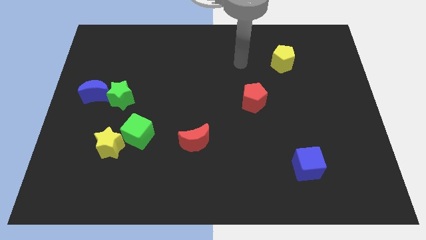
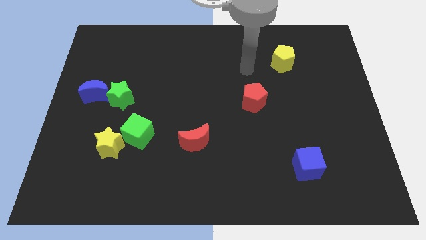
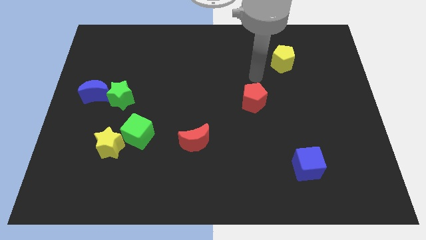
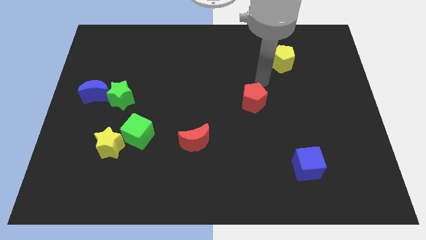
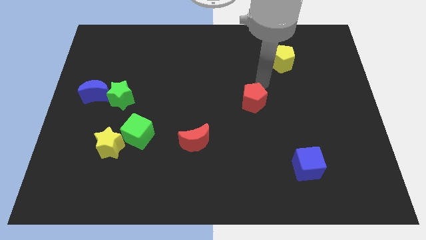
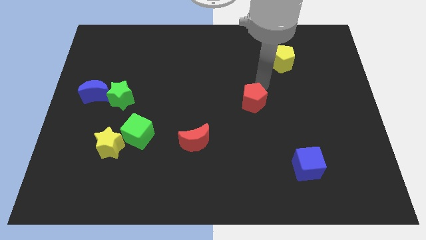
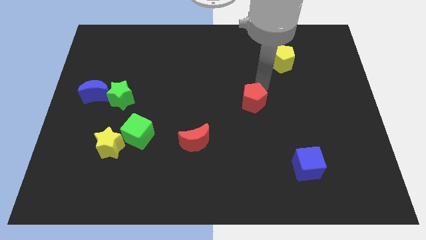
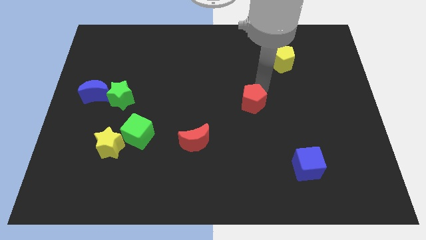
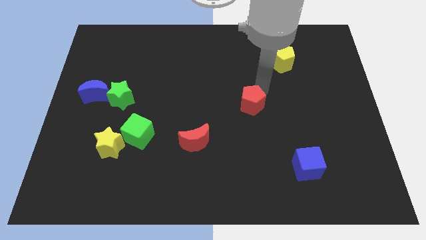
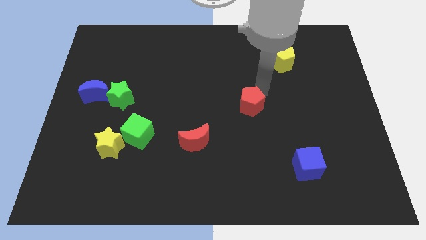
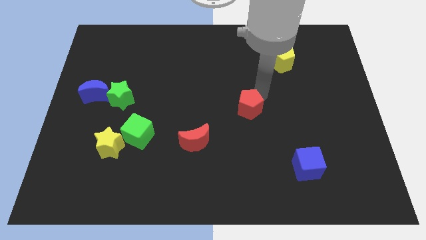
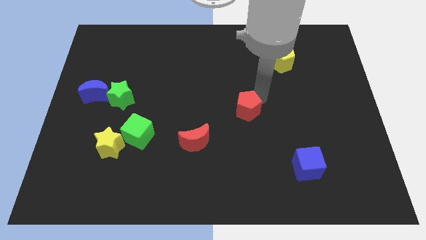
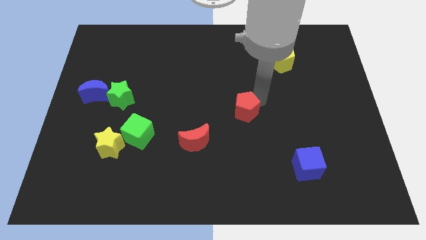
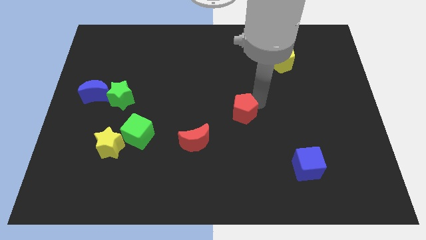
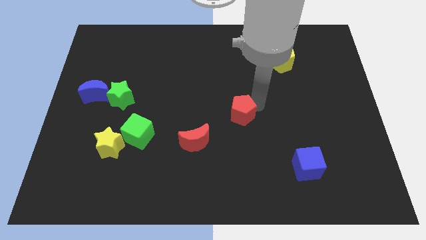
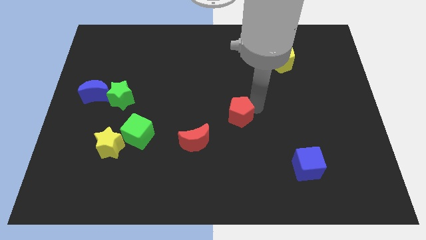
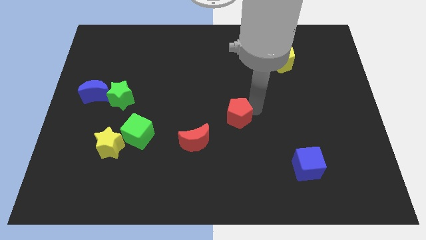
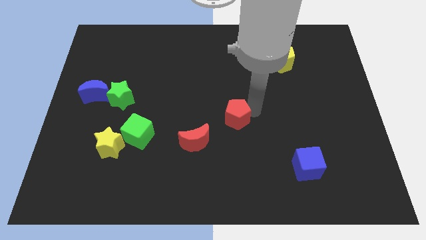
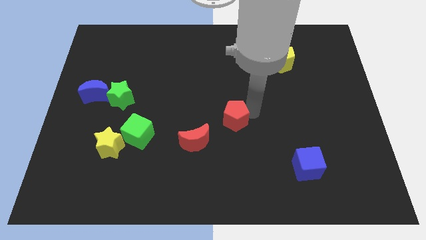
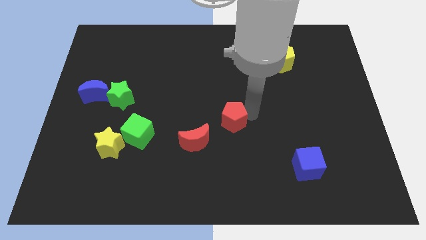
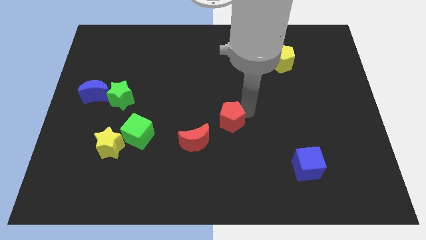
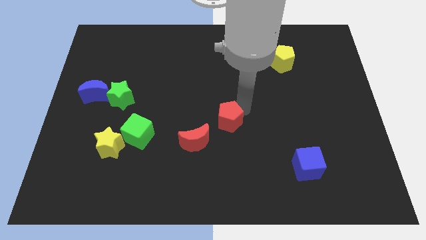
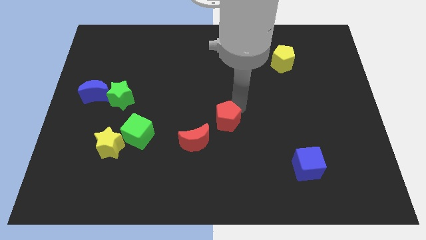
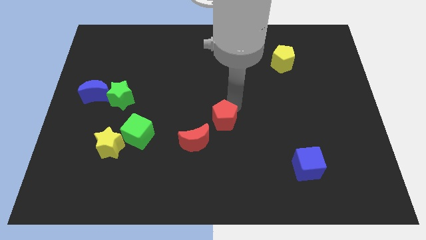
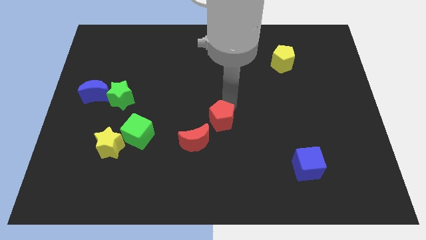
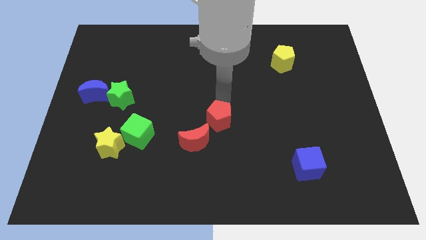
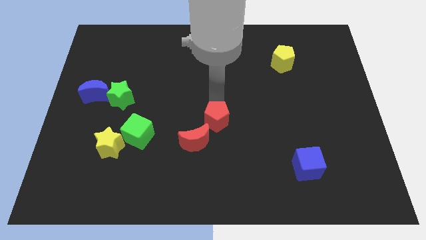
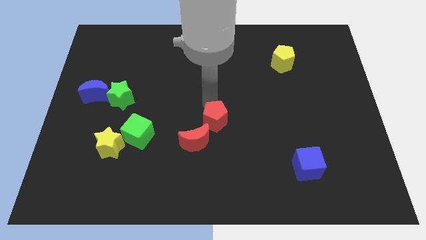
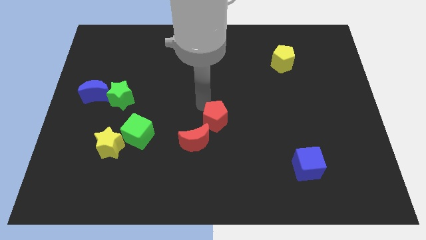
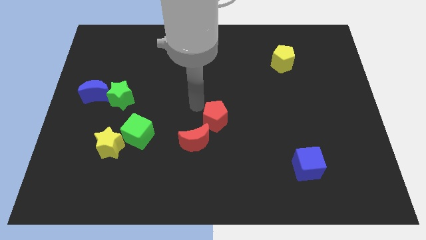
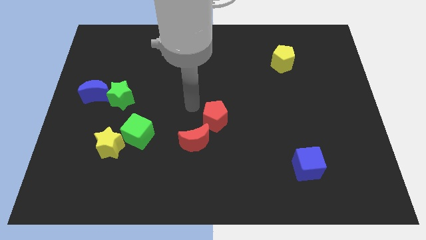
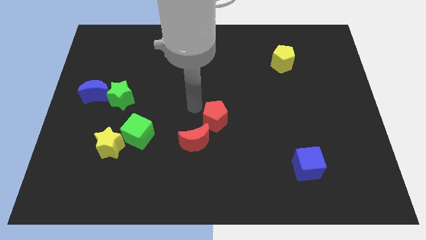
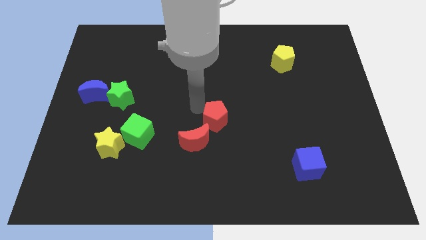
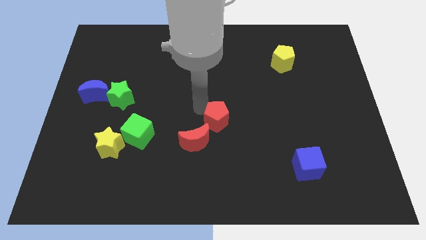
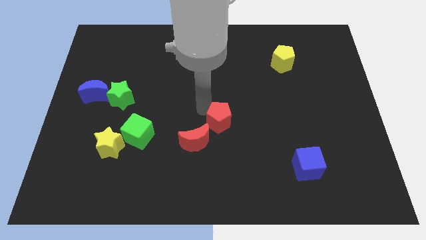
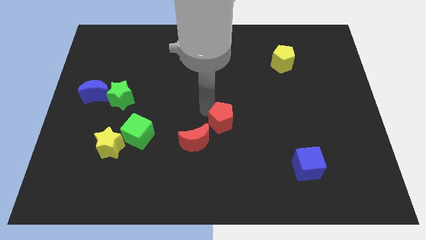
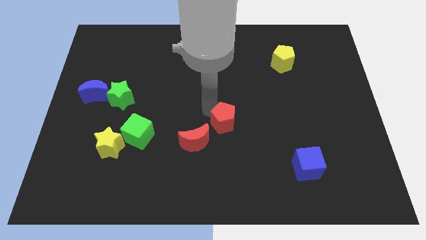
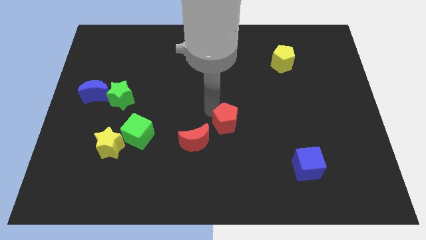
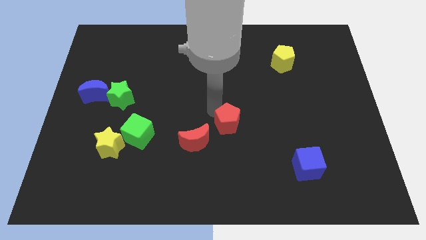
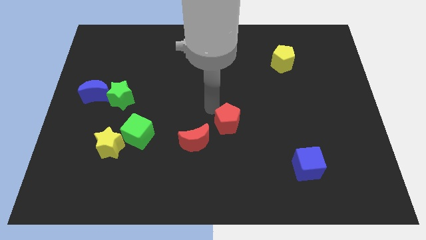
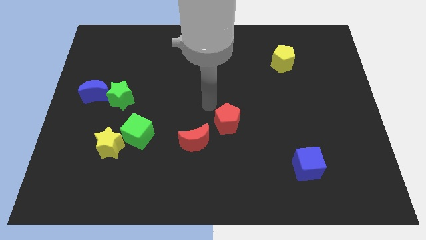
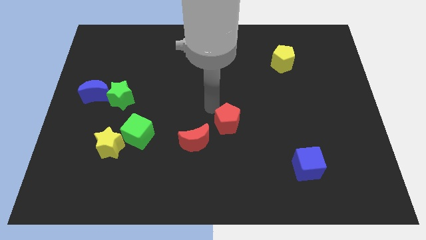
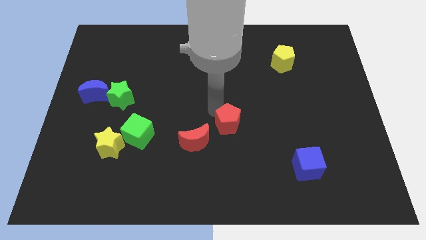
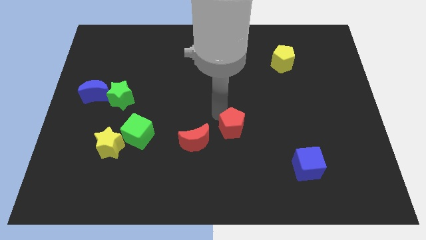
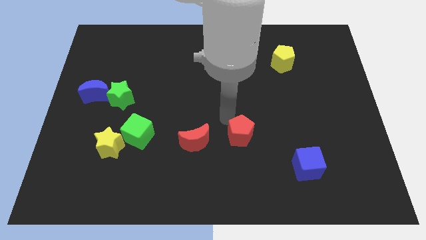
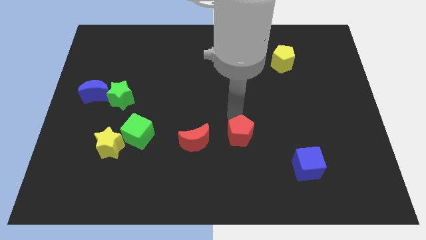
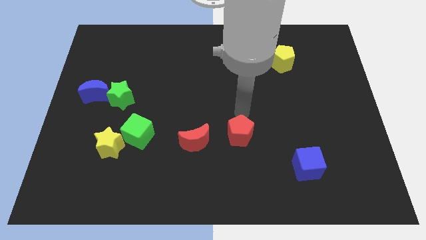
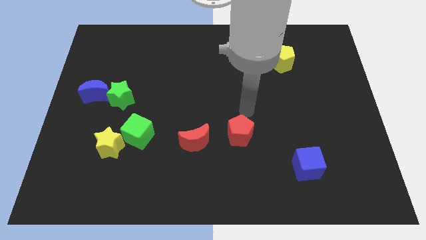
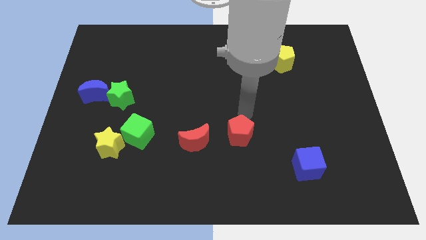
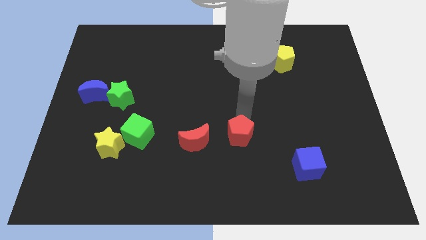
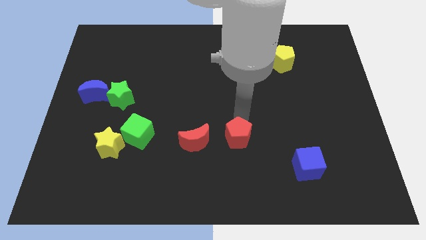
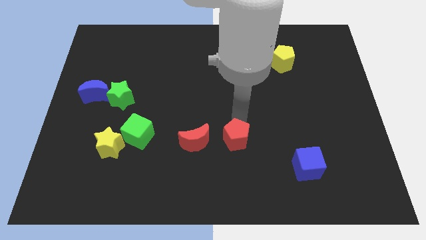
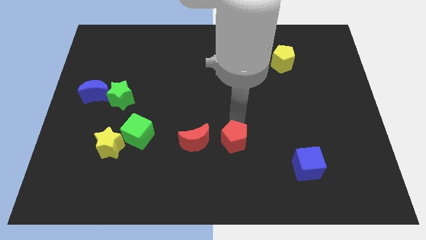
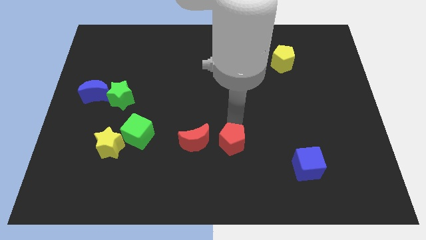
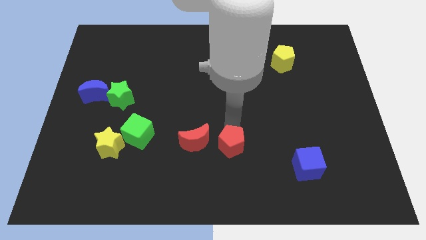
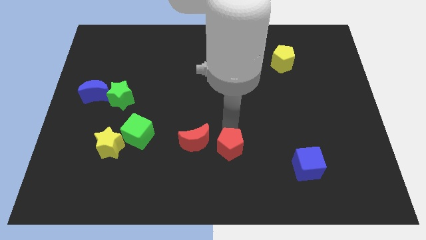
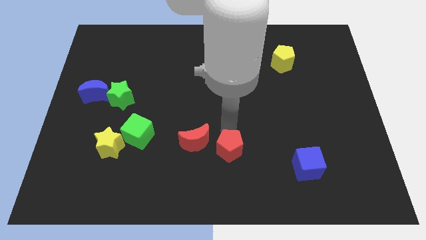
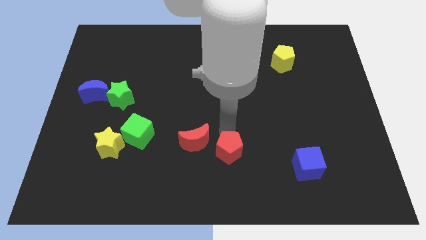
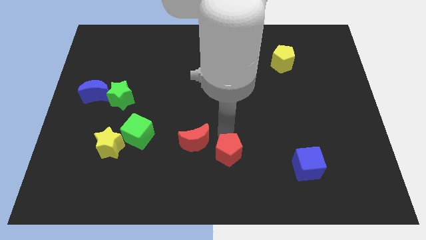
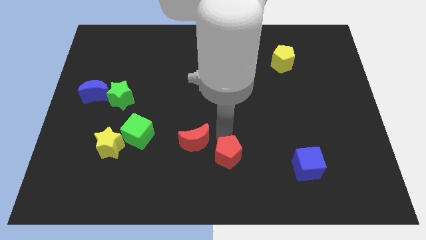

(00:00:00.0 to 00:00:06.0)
push the red pentagon to the bottom side

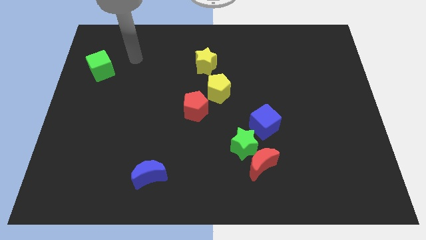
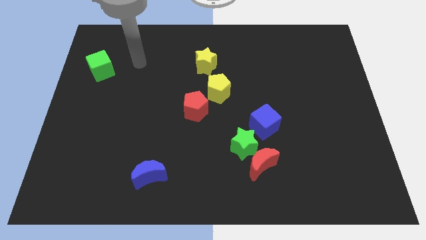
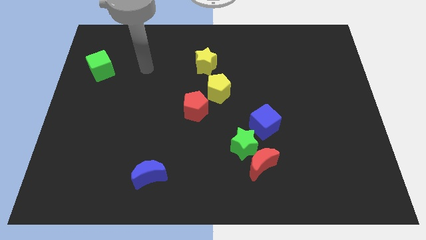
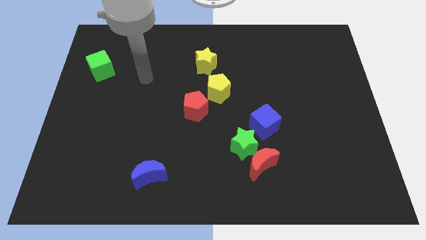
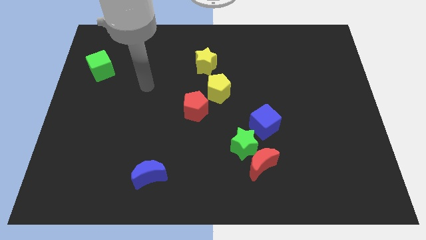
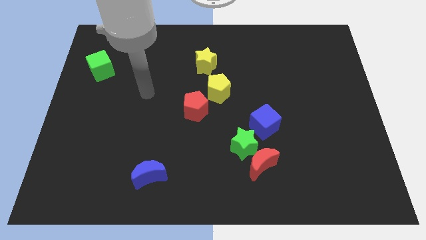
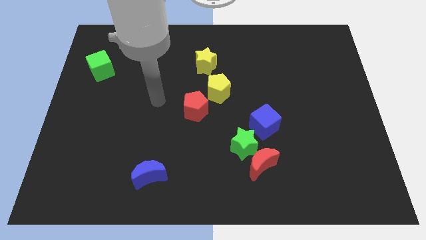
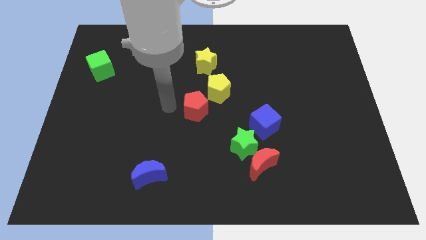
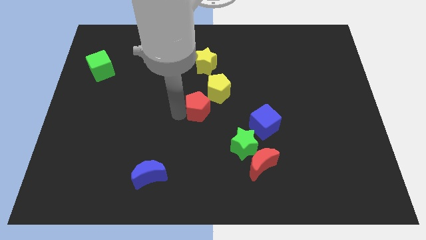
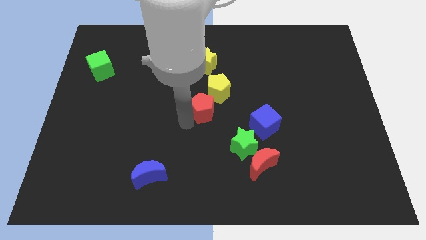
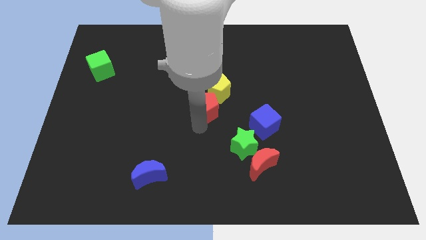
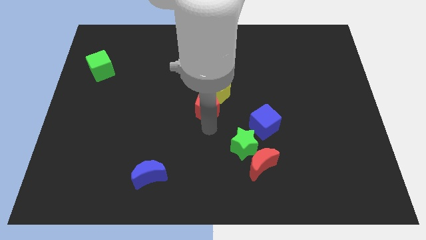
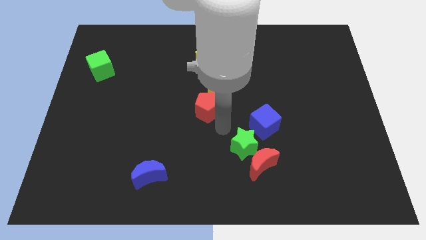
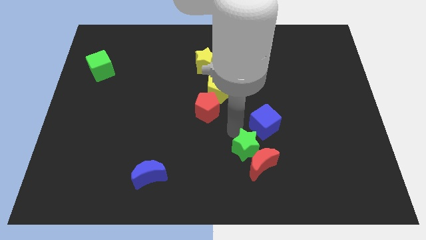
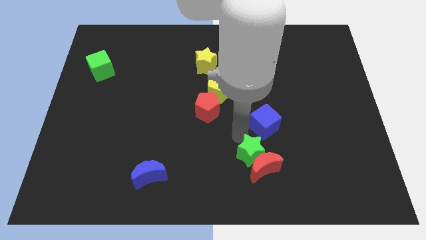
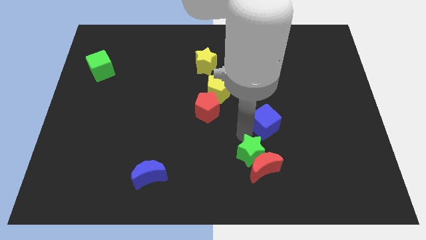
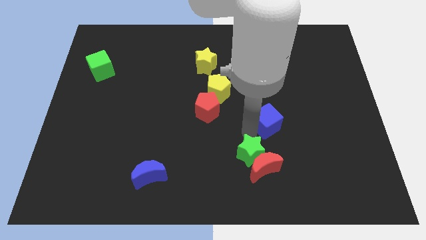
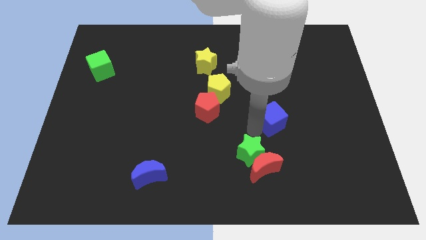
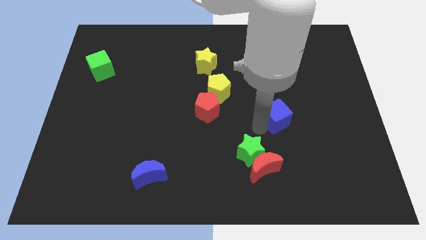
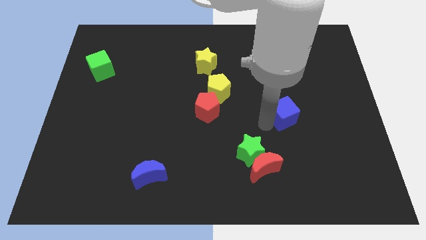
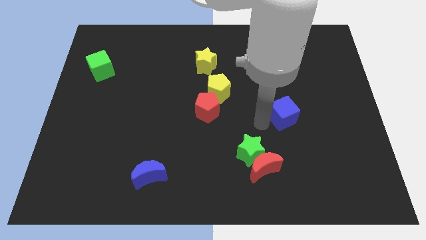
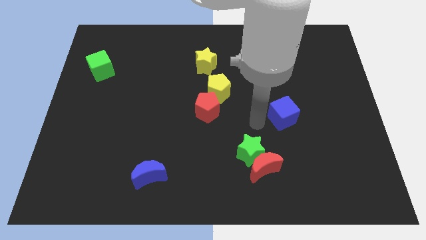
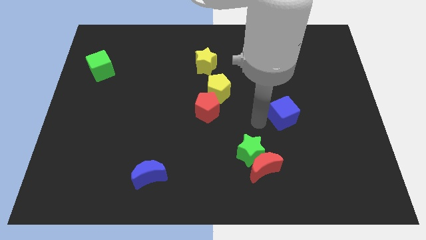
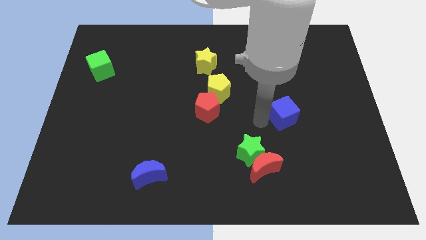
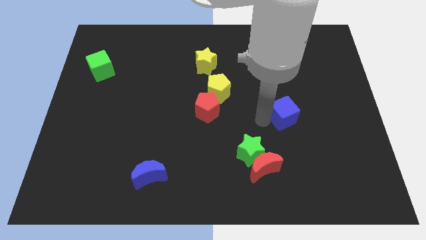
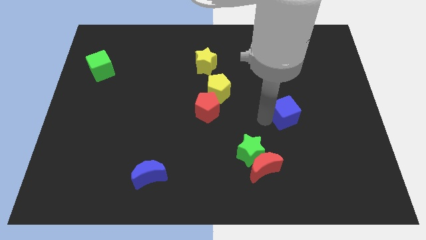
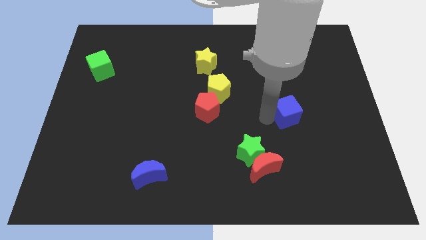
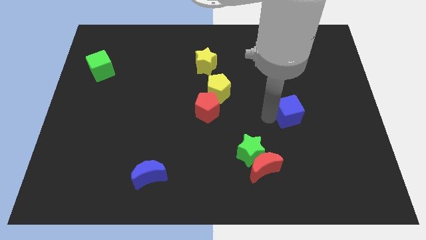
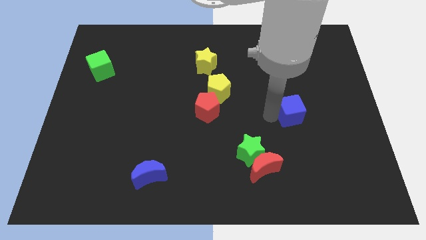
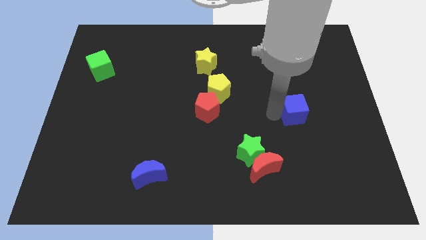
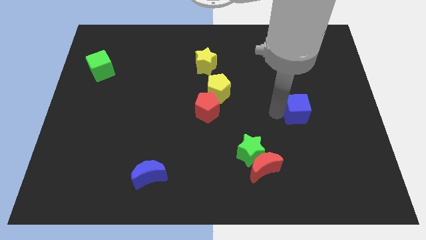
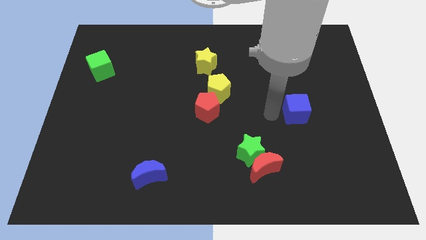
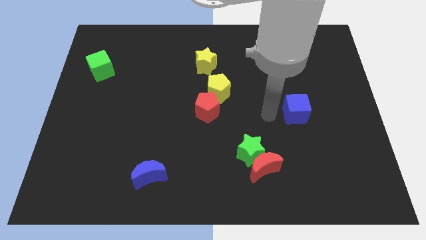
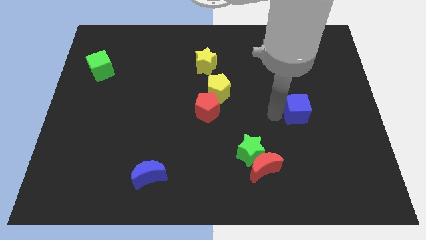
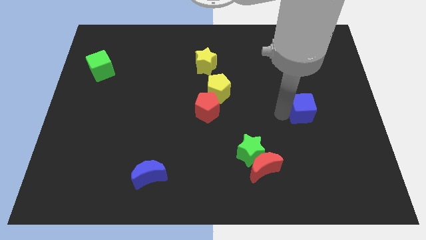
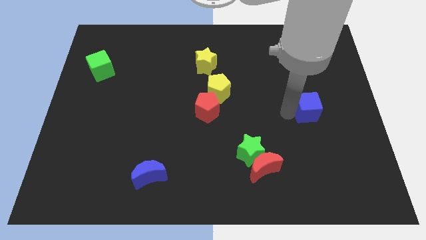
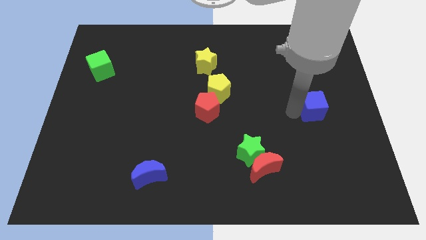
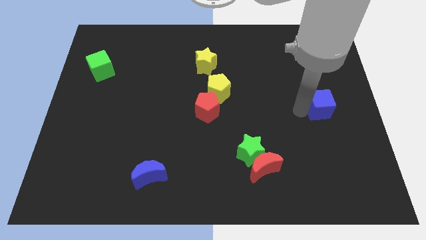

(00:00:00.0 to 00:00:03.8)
put the blue cube to the right side
